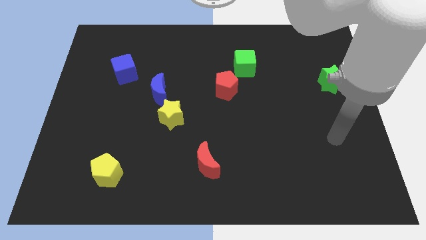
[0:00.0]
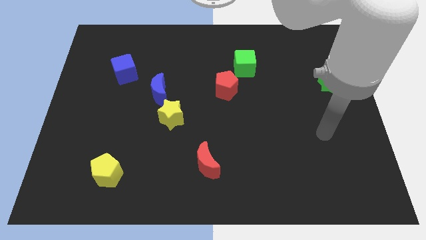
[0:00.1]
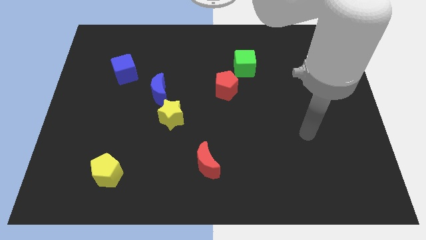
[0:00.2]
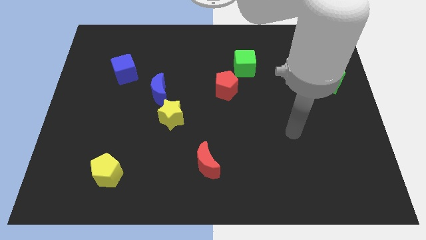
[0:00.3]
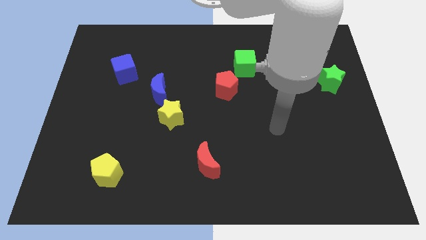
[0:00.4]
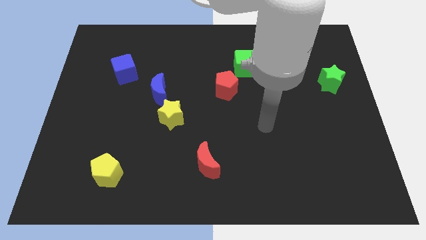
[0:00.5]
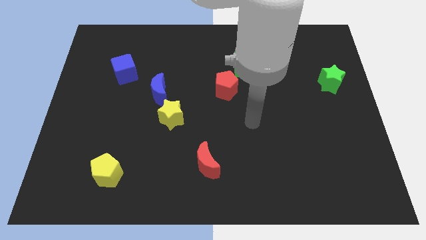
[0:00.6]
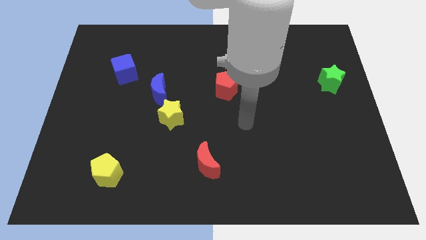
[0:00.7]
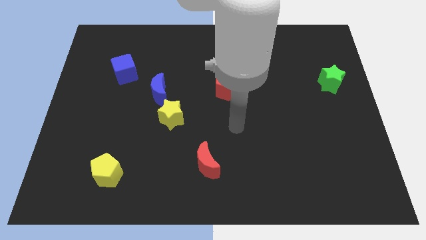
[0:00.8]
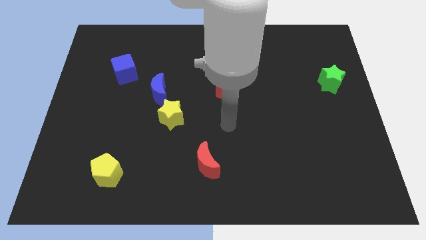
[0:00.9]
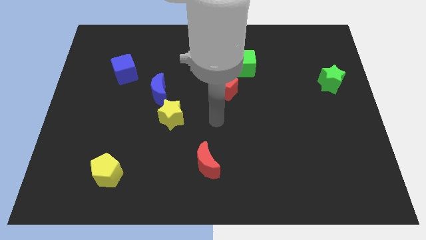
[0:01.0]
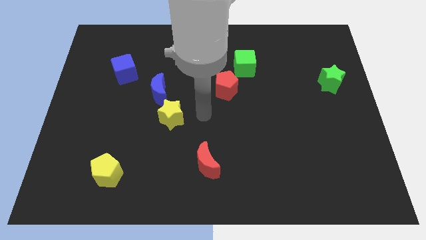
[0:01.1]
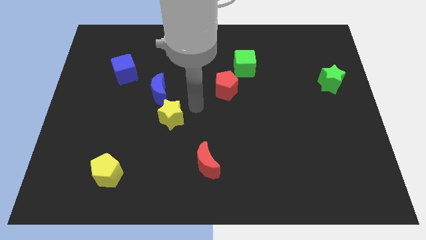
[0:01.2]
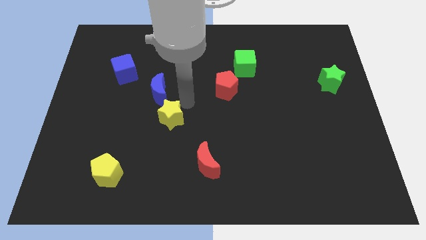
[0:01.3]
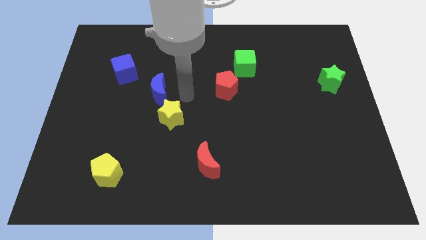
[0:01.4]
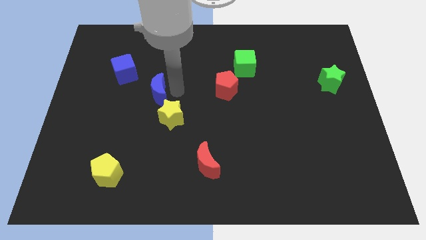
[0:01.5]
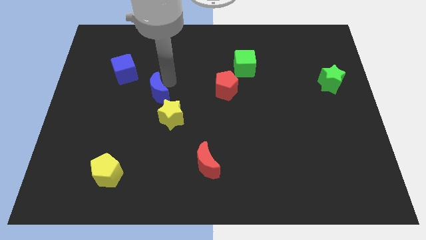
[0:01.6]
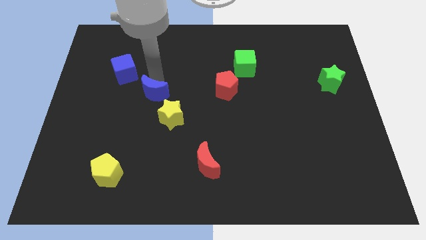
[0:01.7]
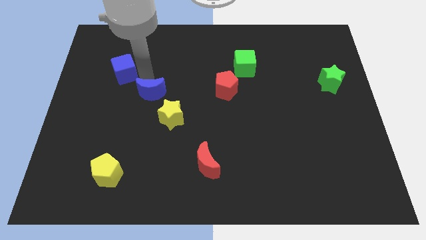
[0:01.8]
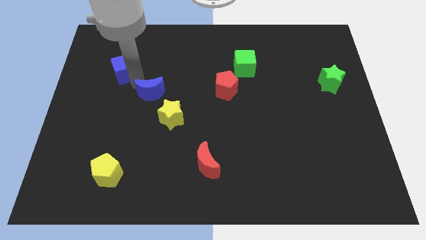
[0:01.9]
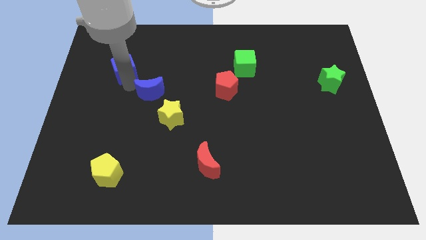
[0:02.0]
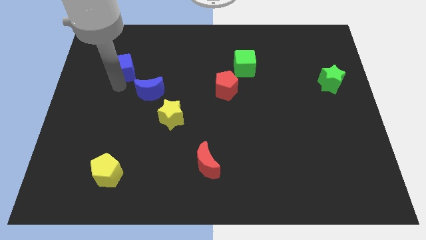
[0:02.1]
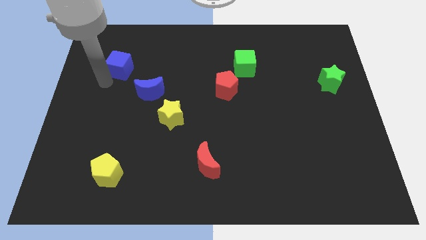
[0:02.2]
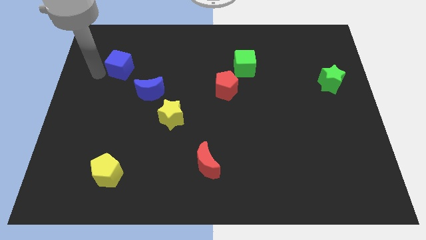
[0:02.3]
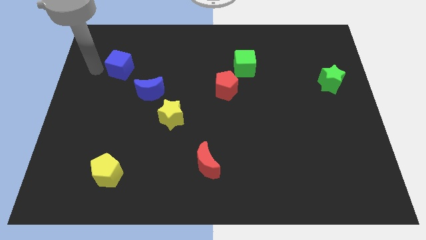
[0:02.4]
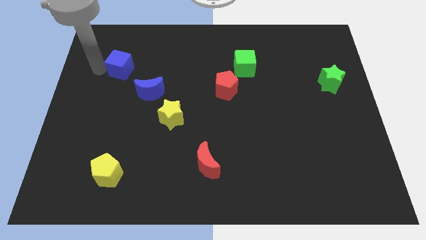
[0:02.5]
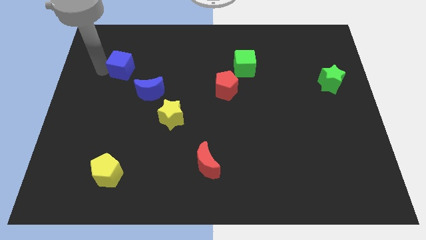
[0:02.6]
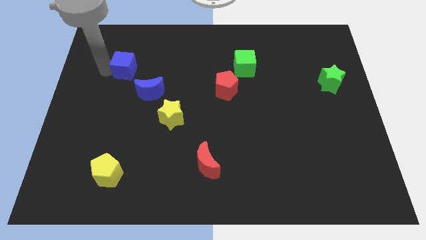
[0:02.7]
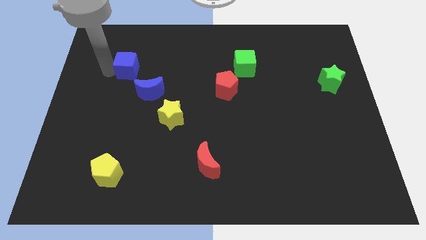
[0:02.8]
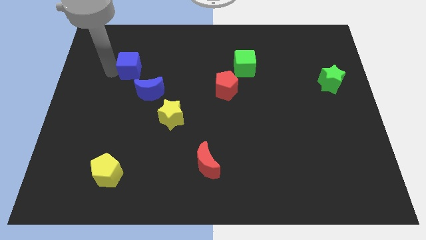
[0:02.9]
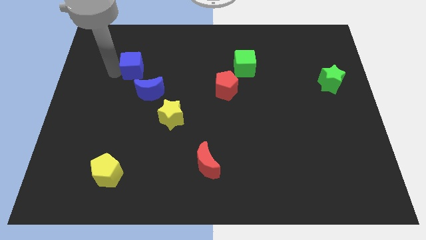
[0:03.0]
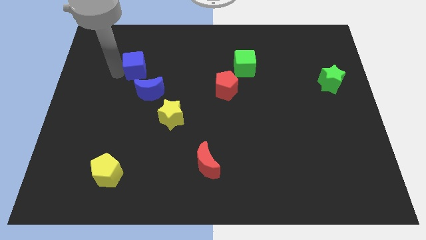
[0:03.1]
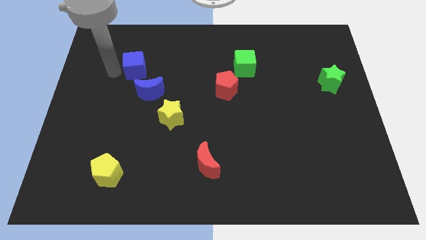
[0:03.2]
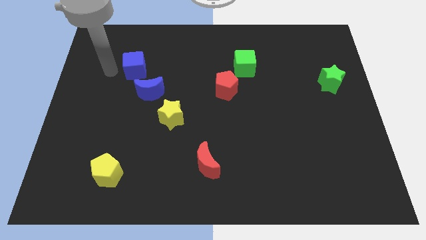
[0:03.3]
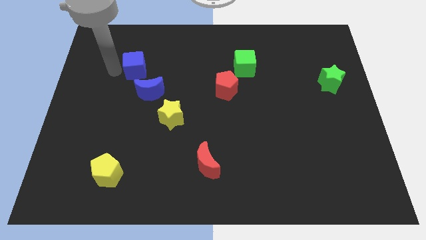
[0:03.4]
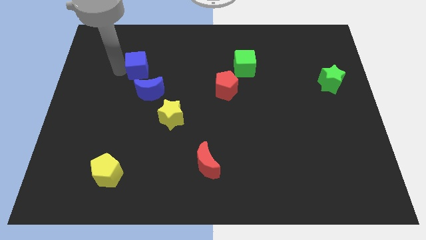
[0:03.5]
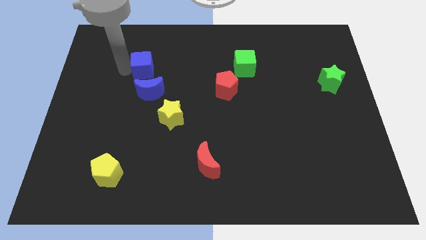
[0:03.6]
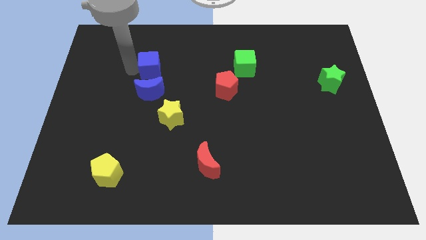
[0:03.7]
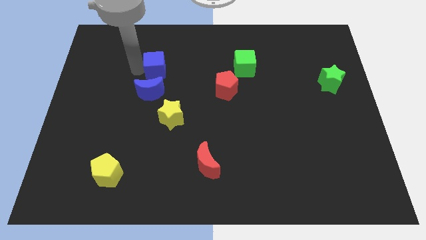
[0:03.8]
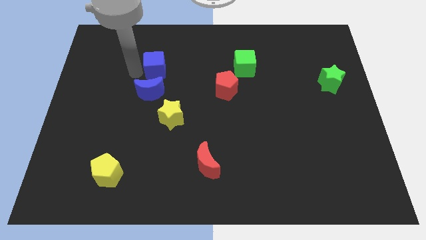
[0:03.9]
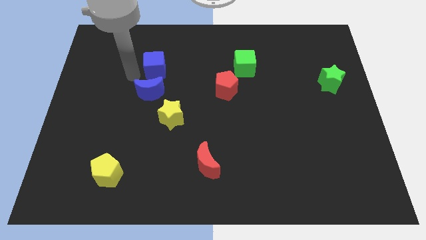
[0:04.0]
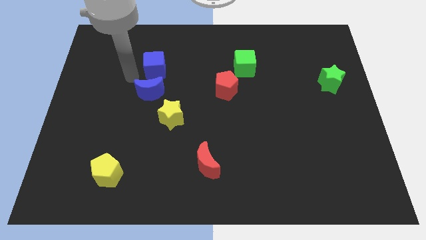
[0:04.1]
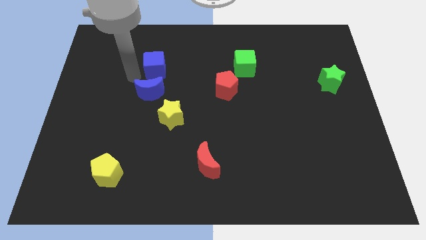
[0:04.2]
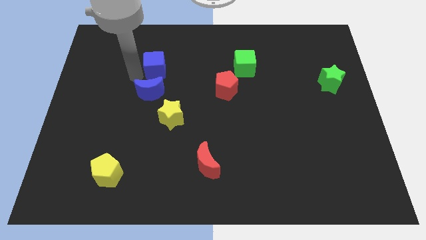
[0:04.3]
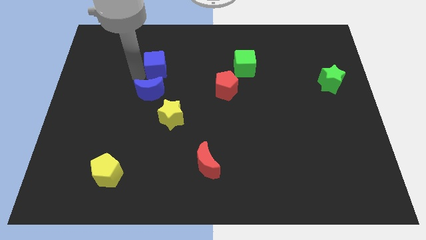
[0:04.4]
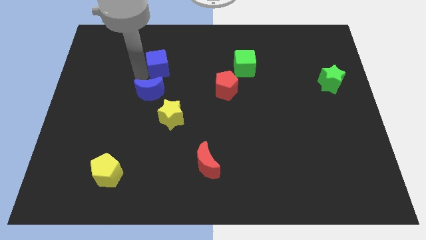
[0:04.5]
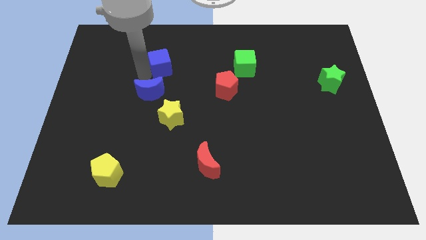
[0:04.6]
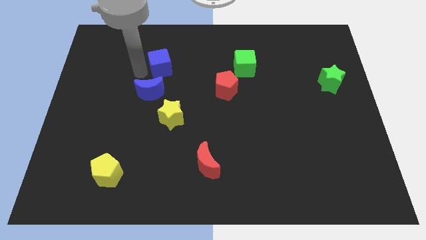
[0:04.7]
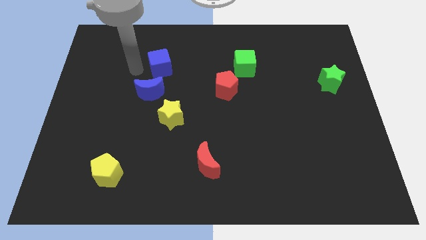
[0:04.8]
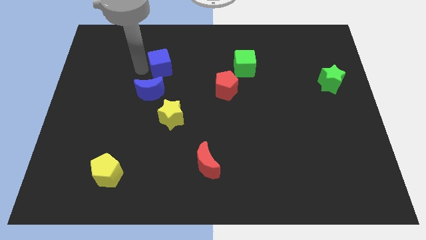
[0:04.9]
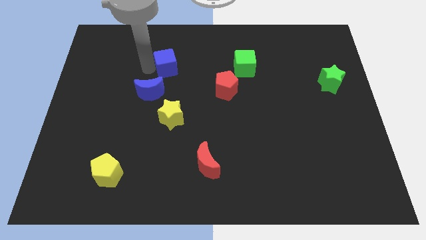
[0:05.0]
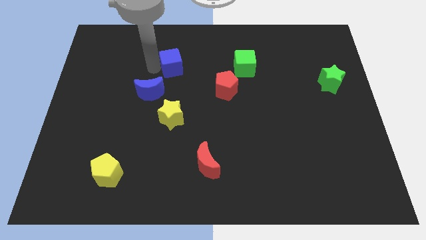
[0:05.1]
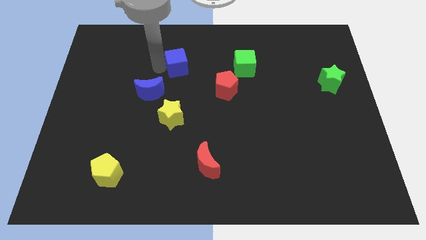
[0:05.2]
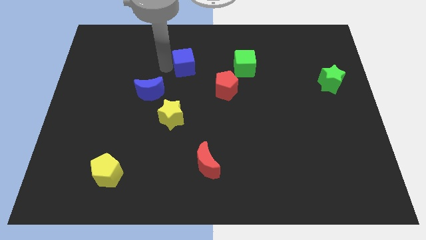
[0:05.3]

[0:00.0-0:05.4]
put the blue cube just left of the green cube

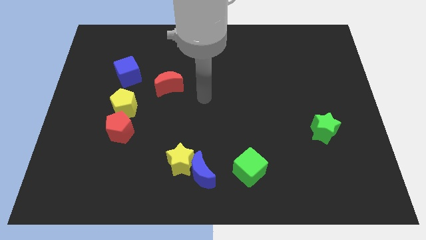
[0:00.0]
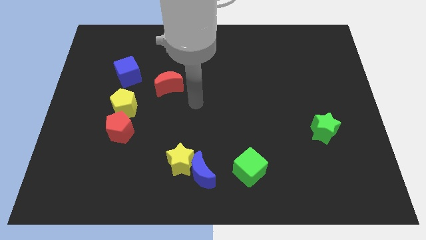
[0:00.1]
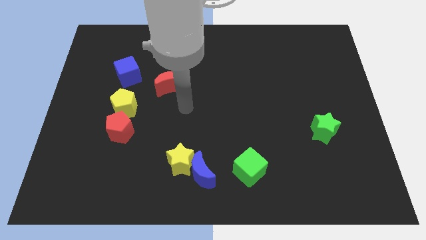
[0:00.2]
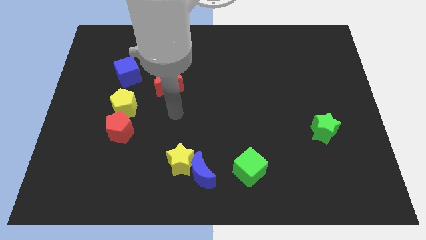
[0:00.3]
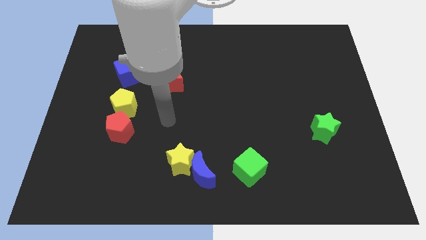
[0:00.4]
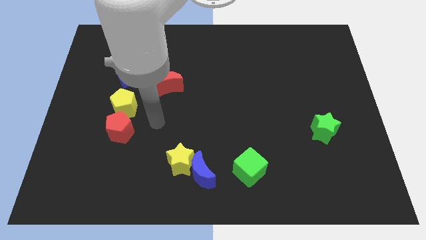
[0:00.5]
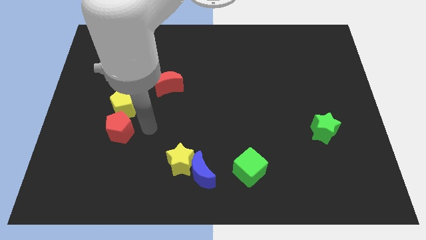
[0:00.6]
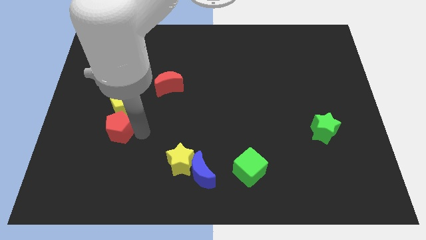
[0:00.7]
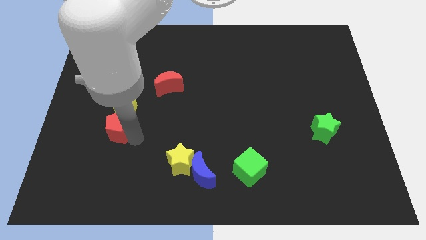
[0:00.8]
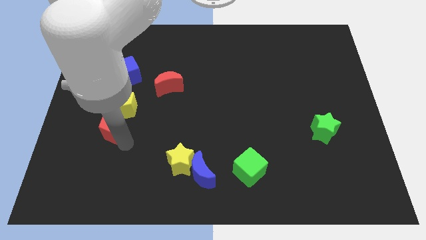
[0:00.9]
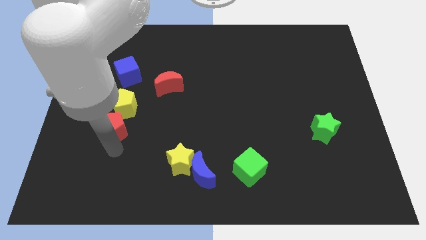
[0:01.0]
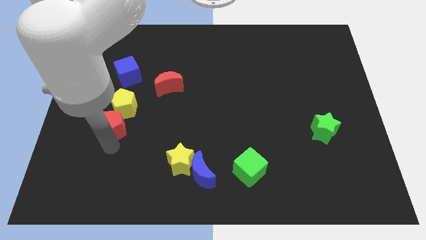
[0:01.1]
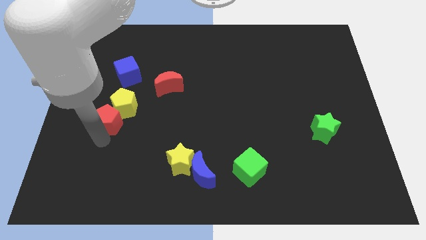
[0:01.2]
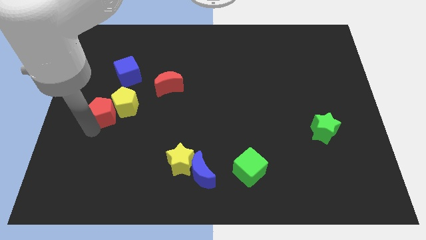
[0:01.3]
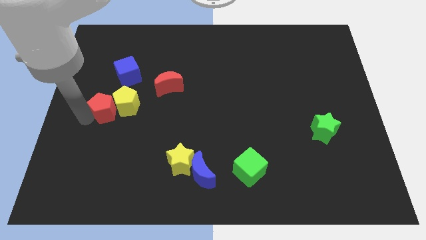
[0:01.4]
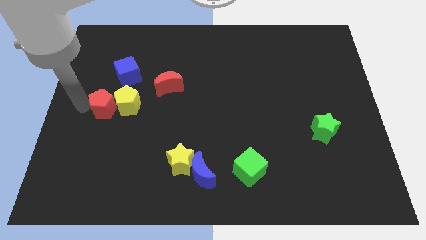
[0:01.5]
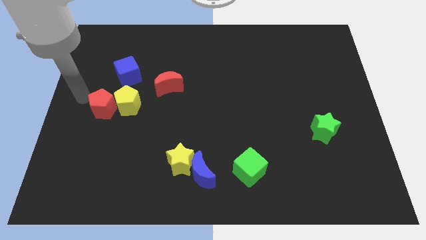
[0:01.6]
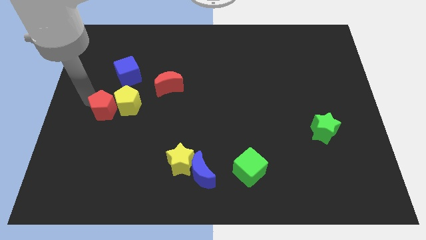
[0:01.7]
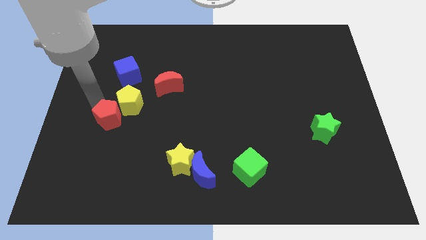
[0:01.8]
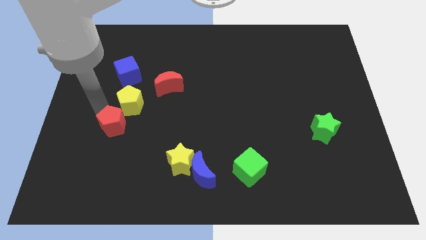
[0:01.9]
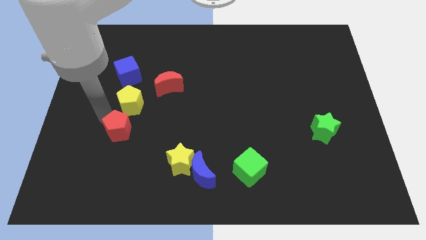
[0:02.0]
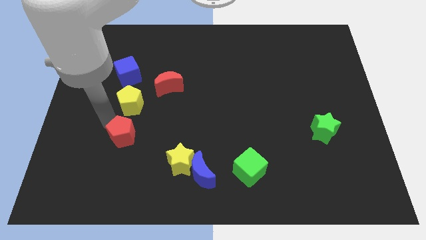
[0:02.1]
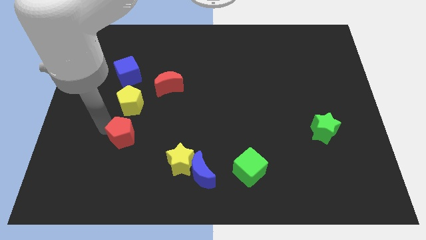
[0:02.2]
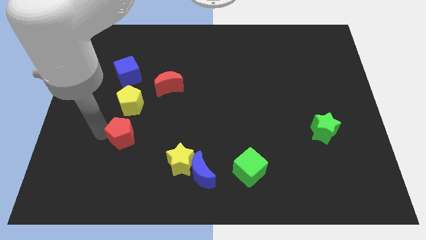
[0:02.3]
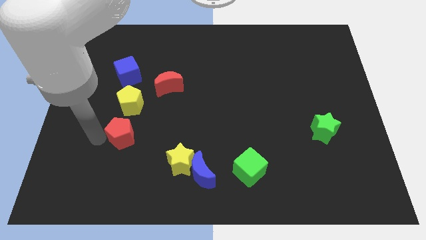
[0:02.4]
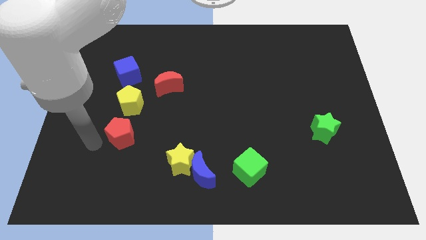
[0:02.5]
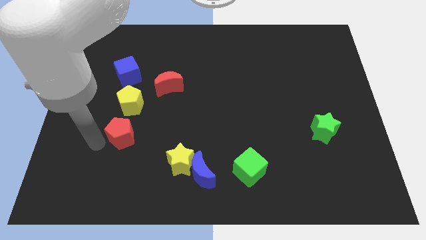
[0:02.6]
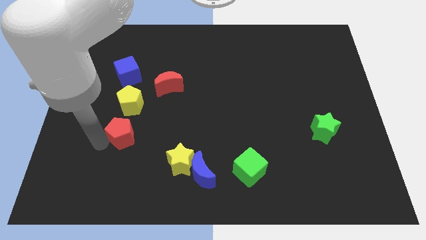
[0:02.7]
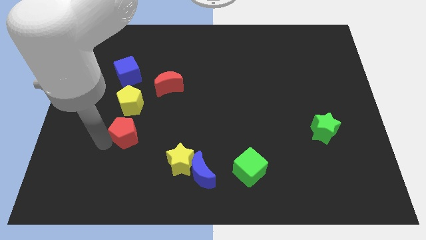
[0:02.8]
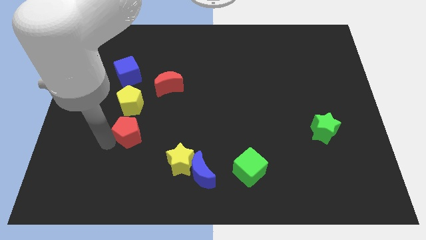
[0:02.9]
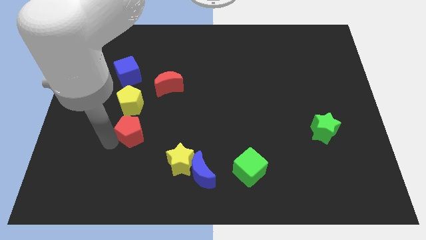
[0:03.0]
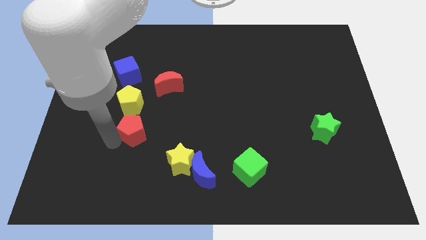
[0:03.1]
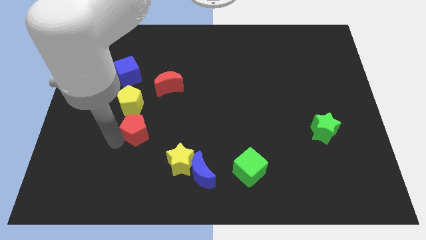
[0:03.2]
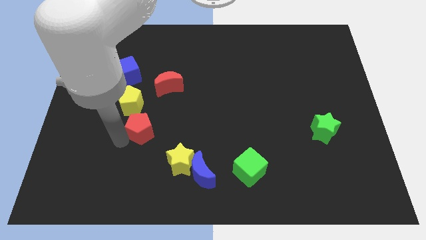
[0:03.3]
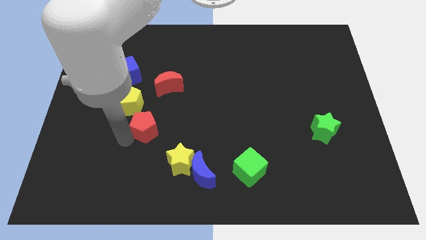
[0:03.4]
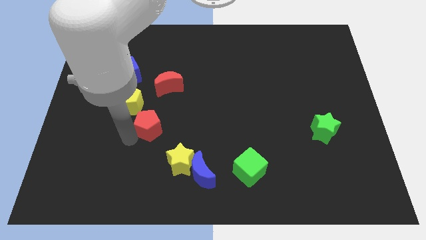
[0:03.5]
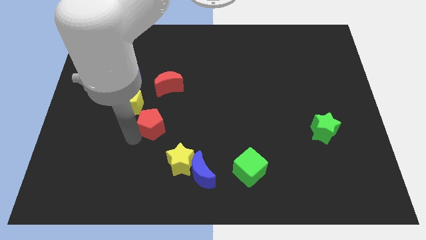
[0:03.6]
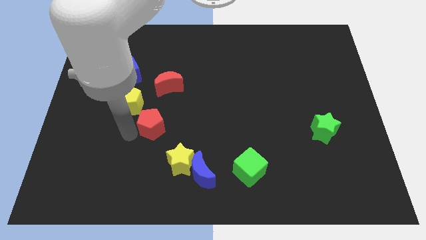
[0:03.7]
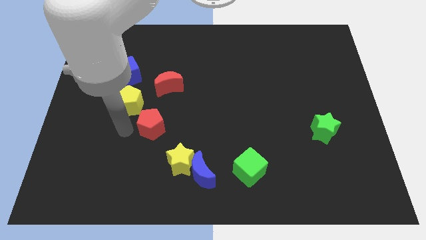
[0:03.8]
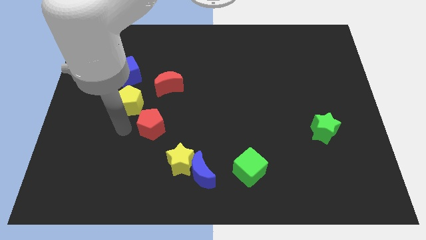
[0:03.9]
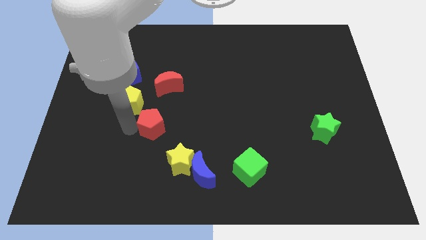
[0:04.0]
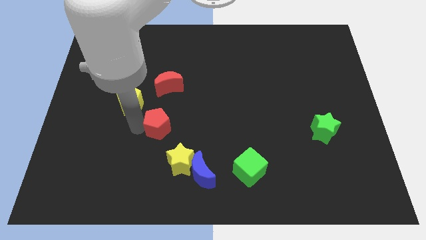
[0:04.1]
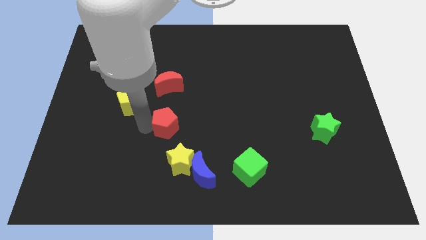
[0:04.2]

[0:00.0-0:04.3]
put the red pentagon to the top of the yellow star
